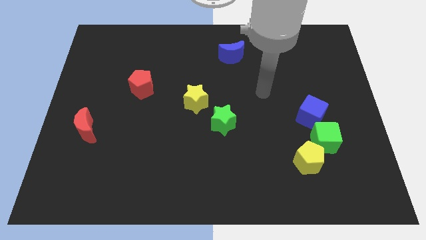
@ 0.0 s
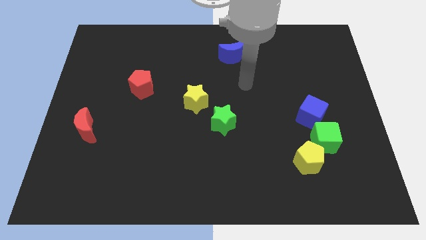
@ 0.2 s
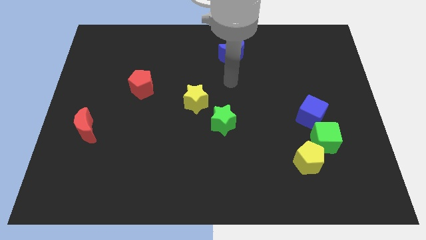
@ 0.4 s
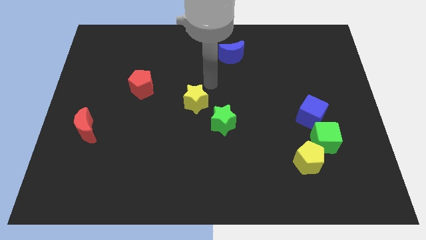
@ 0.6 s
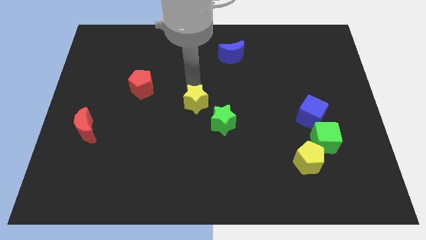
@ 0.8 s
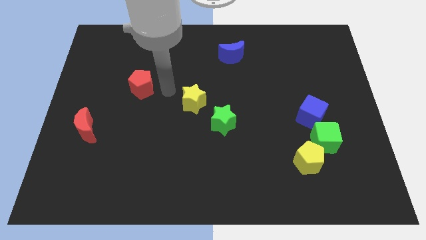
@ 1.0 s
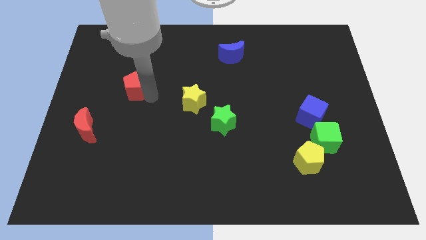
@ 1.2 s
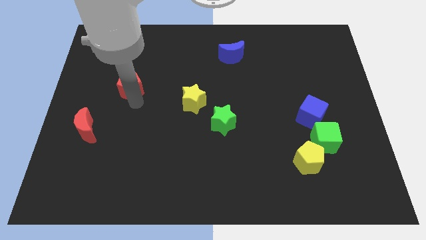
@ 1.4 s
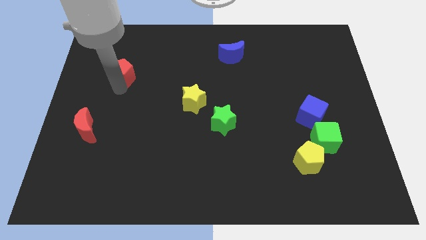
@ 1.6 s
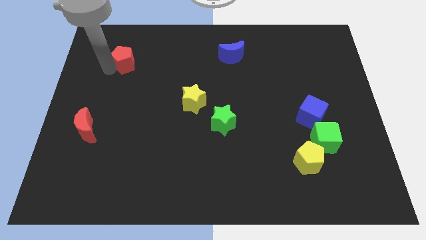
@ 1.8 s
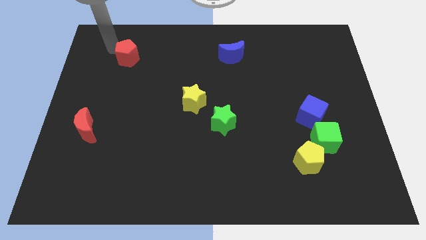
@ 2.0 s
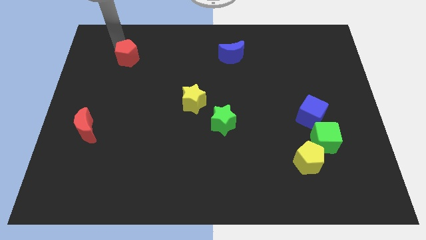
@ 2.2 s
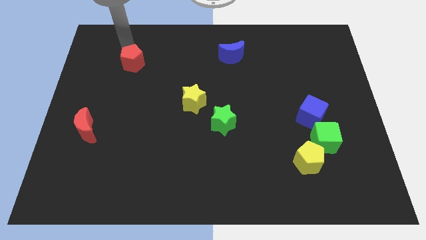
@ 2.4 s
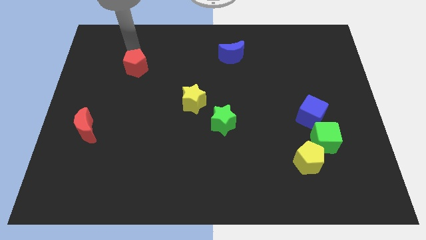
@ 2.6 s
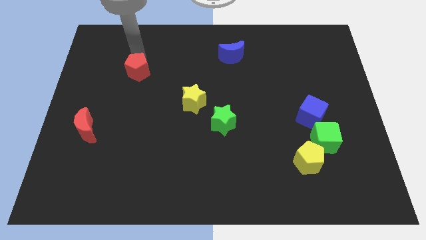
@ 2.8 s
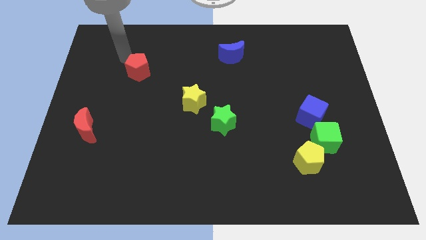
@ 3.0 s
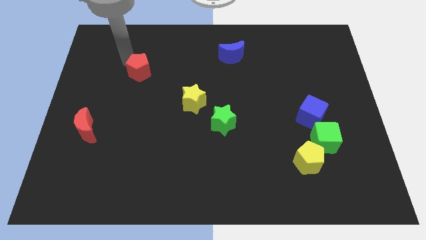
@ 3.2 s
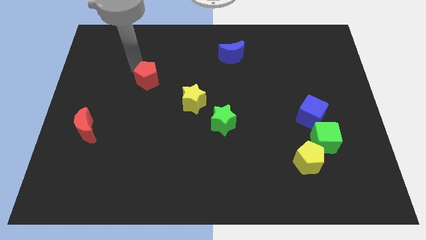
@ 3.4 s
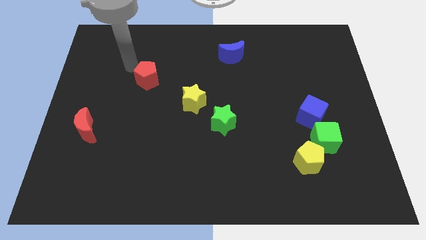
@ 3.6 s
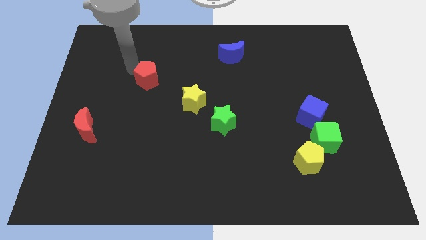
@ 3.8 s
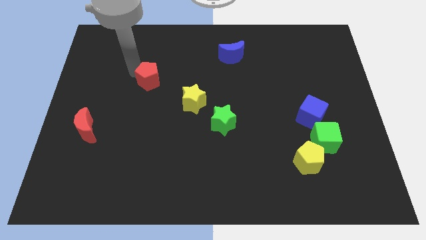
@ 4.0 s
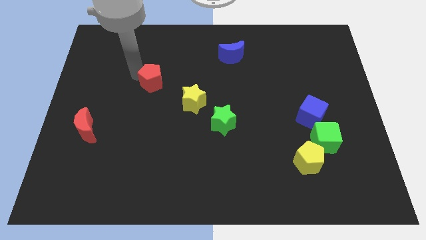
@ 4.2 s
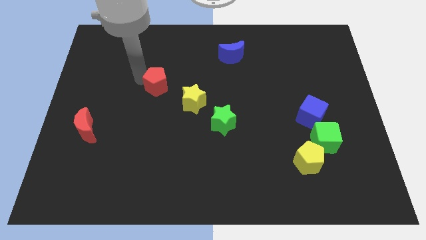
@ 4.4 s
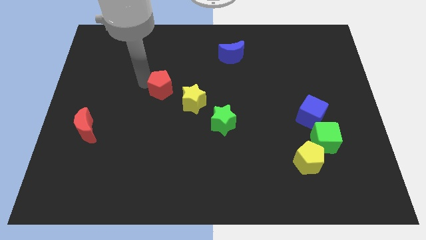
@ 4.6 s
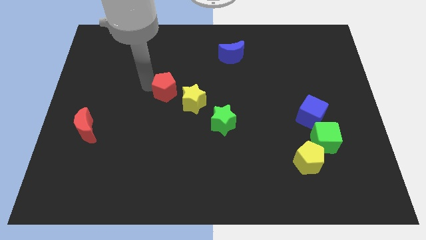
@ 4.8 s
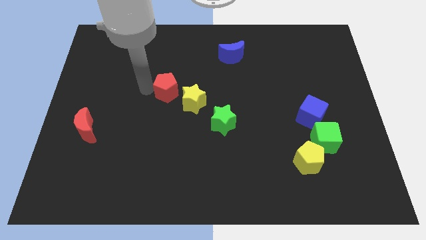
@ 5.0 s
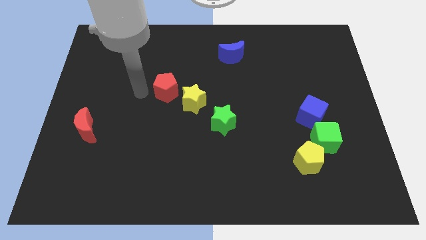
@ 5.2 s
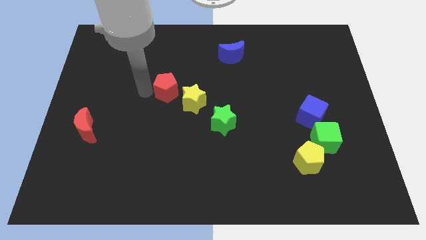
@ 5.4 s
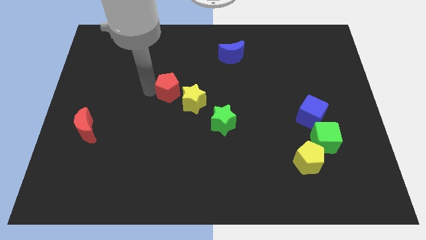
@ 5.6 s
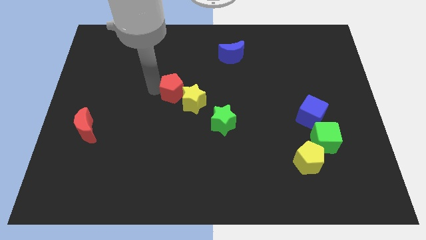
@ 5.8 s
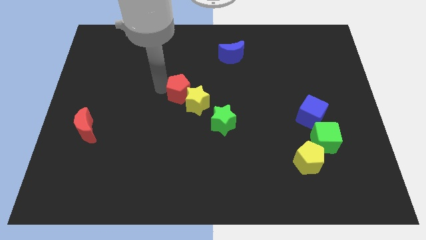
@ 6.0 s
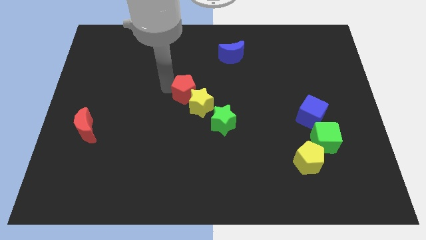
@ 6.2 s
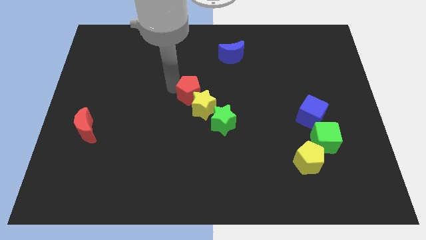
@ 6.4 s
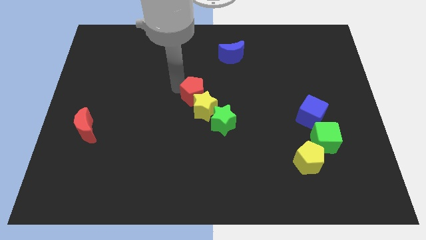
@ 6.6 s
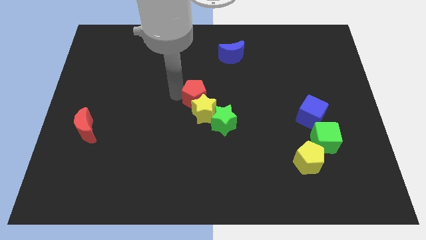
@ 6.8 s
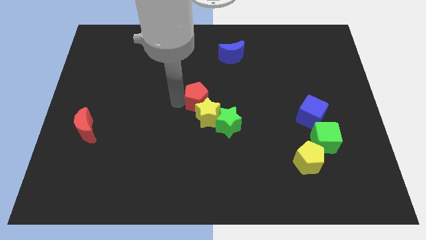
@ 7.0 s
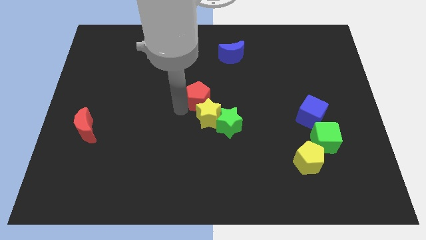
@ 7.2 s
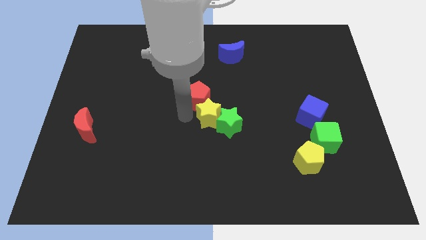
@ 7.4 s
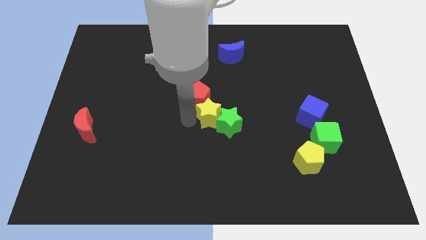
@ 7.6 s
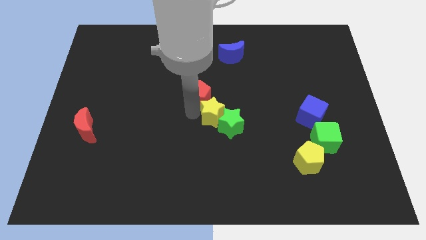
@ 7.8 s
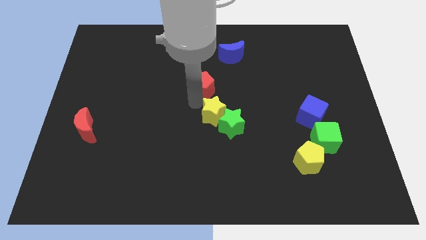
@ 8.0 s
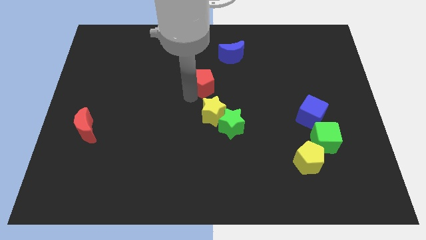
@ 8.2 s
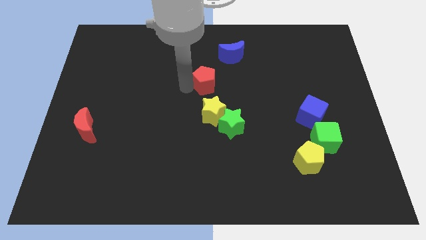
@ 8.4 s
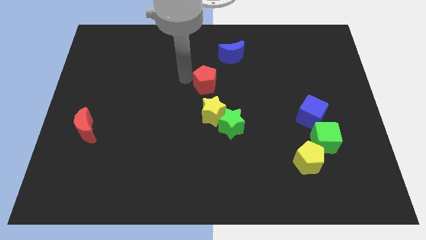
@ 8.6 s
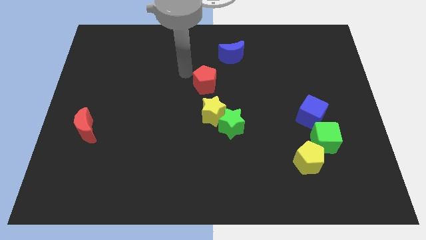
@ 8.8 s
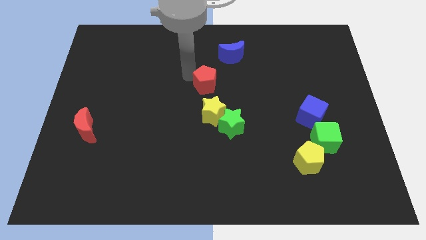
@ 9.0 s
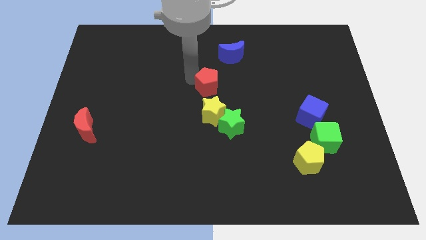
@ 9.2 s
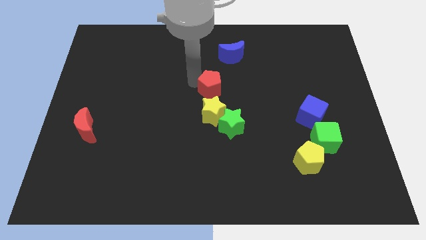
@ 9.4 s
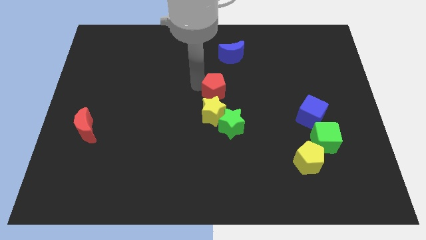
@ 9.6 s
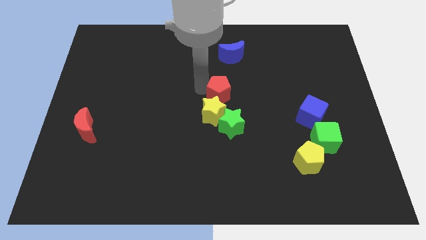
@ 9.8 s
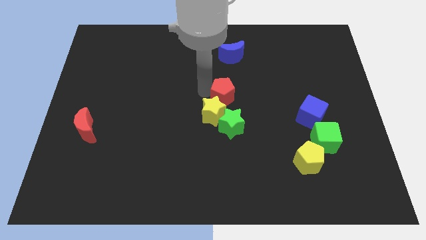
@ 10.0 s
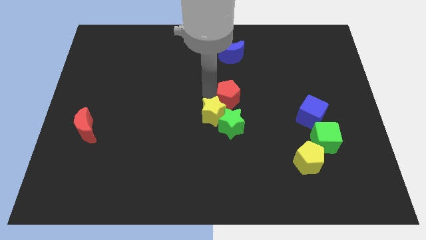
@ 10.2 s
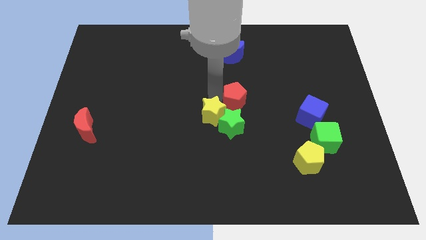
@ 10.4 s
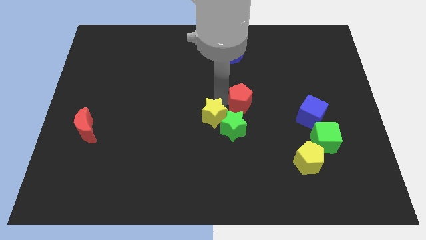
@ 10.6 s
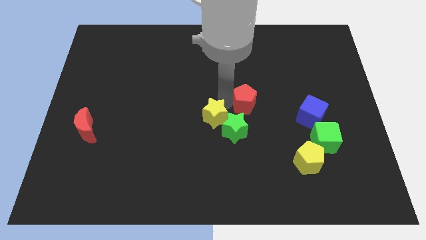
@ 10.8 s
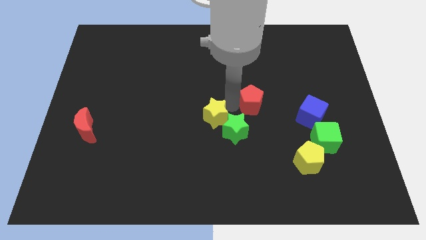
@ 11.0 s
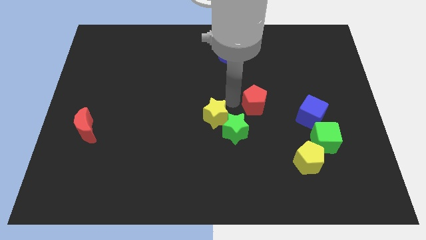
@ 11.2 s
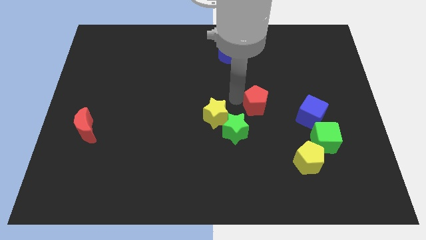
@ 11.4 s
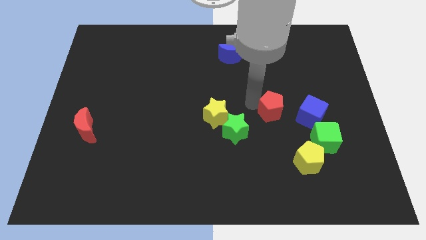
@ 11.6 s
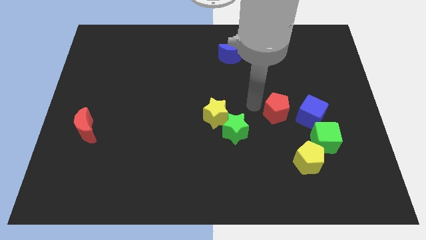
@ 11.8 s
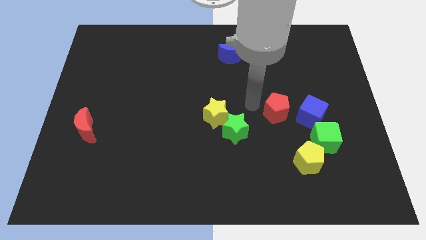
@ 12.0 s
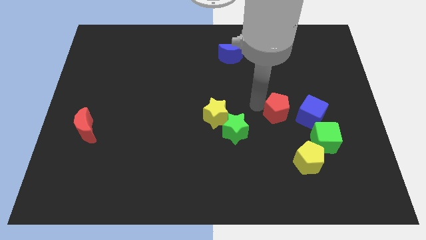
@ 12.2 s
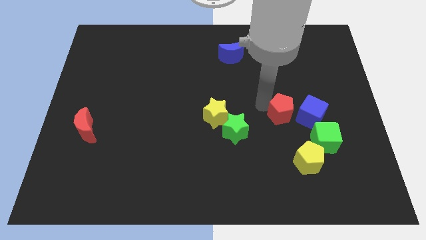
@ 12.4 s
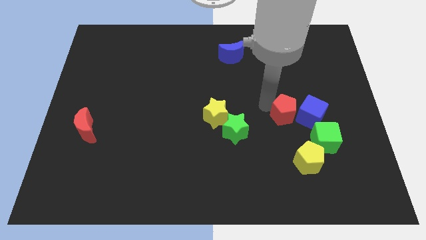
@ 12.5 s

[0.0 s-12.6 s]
move the red pentagon close to the blue cube

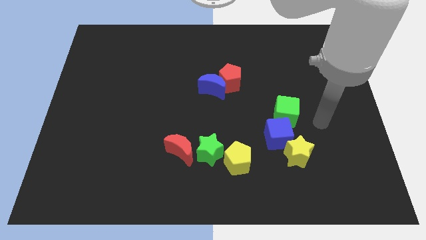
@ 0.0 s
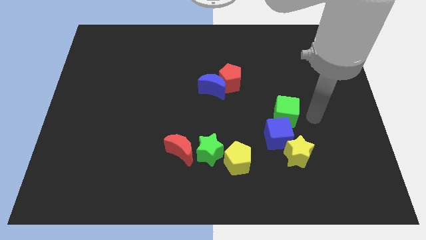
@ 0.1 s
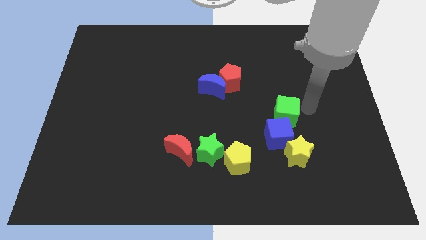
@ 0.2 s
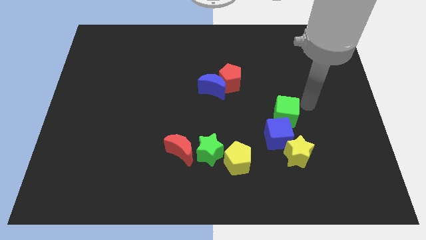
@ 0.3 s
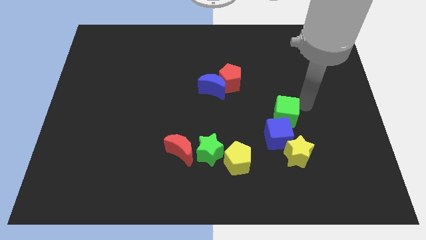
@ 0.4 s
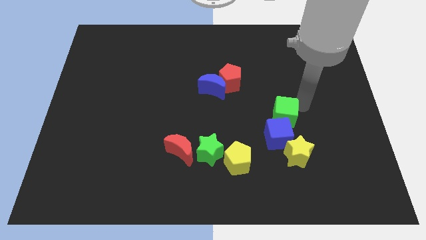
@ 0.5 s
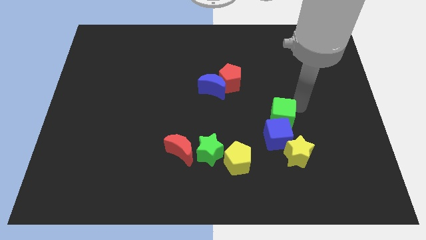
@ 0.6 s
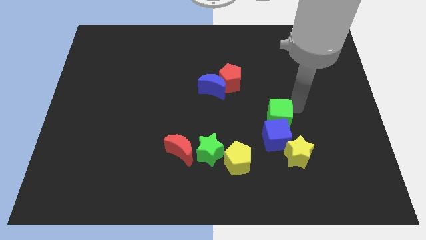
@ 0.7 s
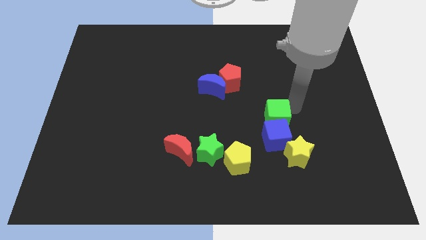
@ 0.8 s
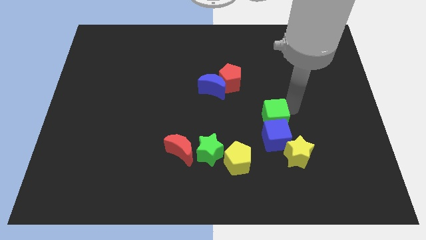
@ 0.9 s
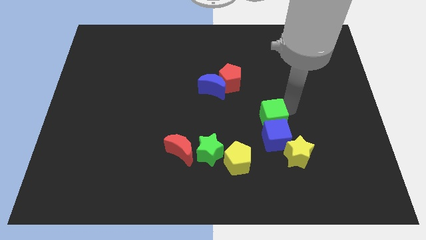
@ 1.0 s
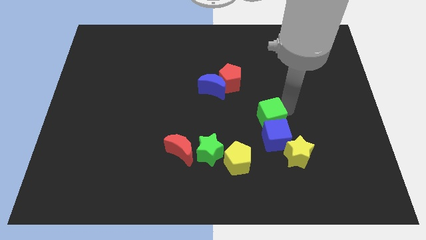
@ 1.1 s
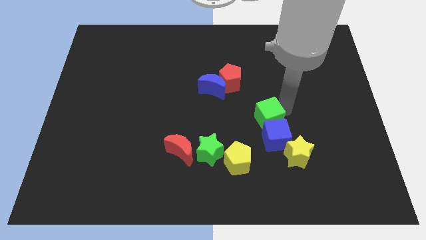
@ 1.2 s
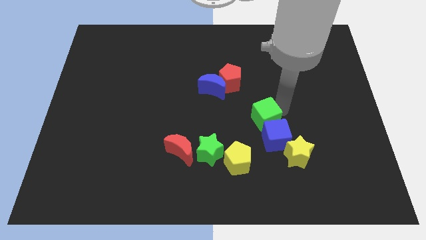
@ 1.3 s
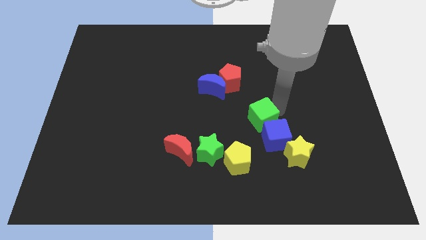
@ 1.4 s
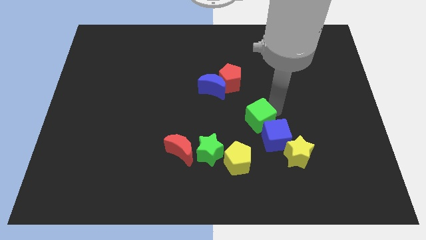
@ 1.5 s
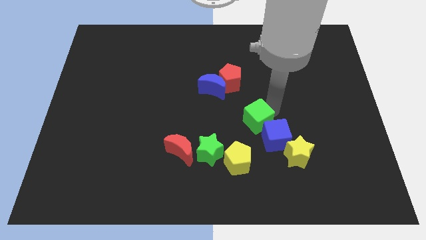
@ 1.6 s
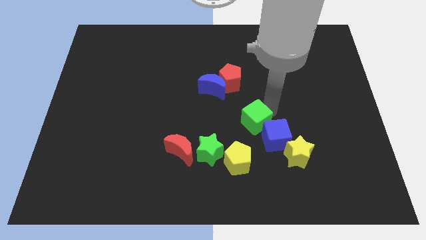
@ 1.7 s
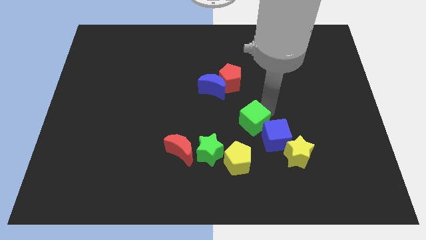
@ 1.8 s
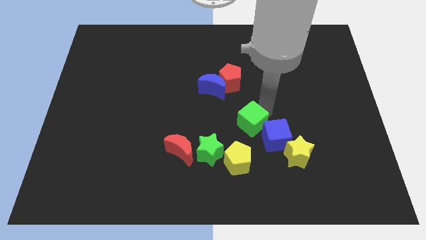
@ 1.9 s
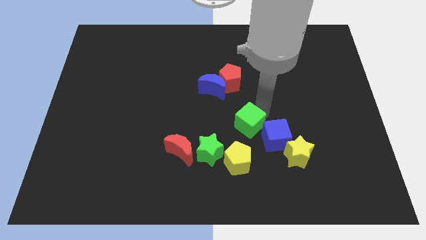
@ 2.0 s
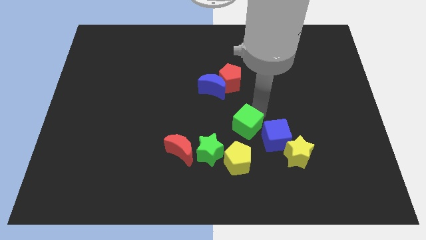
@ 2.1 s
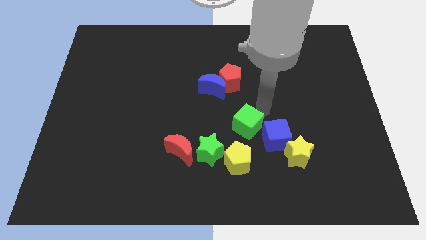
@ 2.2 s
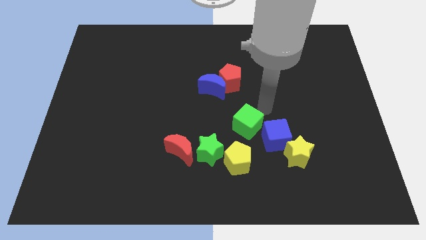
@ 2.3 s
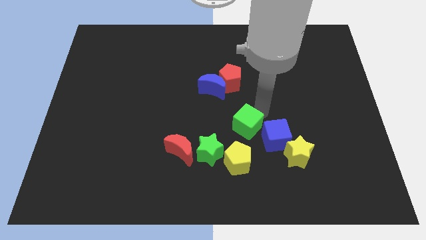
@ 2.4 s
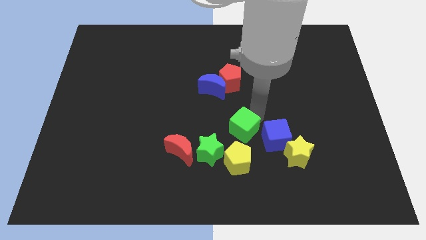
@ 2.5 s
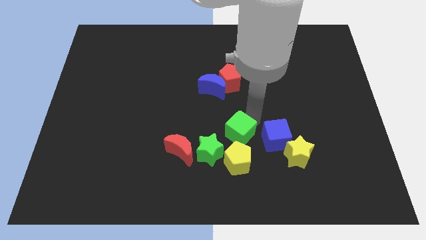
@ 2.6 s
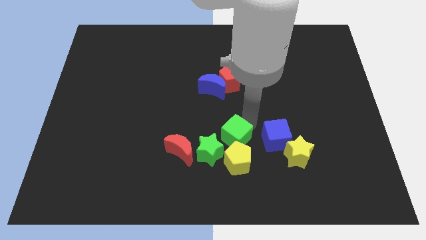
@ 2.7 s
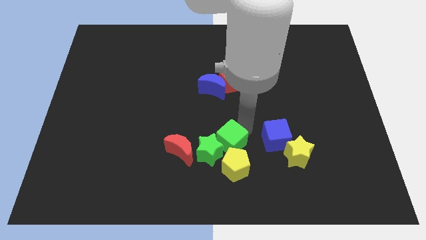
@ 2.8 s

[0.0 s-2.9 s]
move the green cube to the green star
